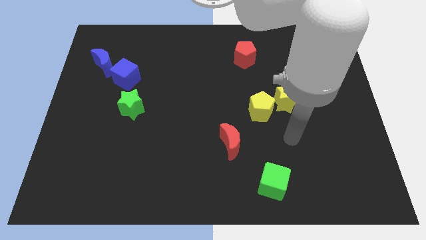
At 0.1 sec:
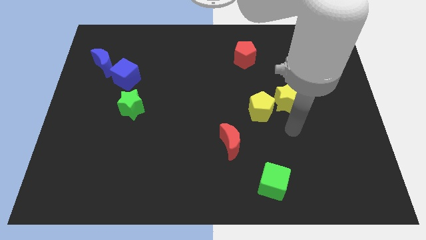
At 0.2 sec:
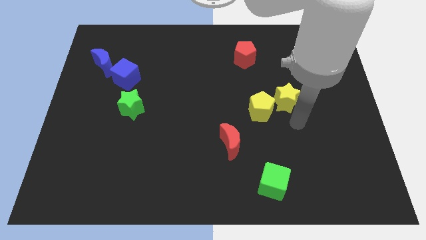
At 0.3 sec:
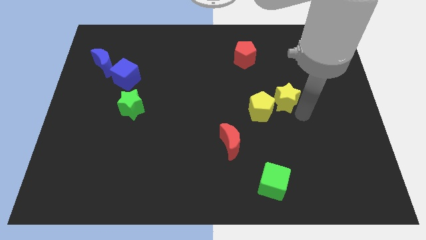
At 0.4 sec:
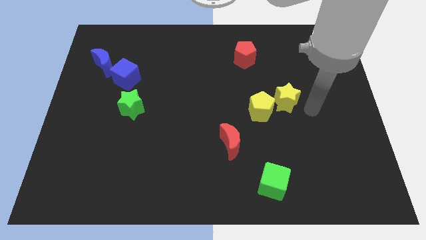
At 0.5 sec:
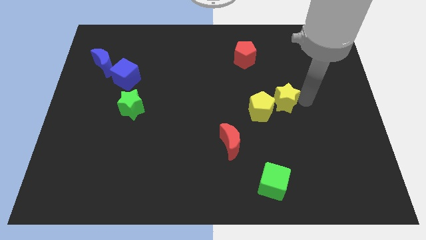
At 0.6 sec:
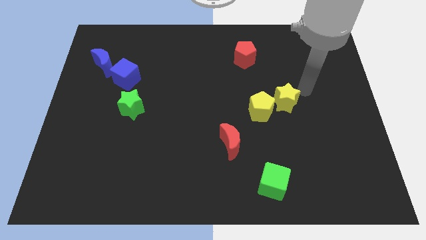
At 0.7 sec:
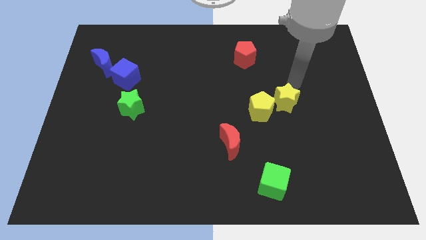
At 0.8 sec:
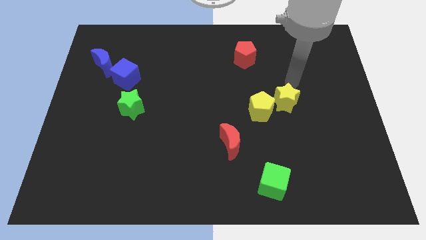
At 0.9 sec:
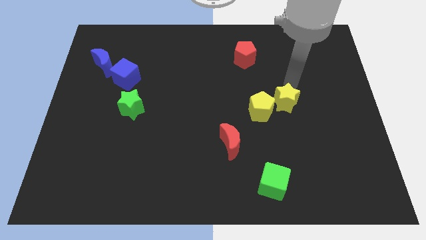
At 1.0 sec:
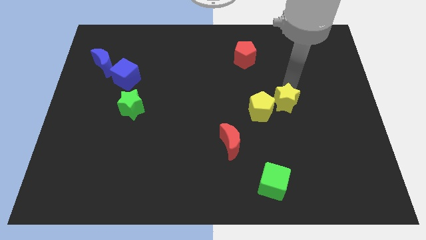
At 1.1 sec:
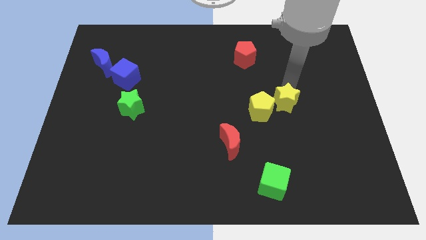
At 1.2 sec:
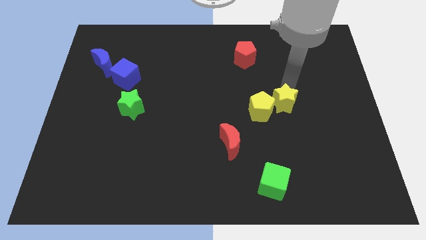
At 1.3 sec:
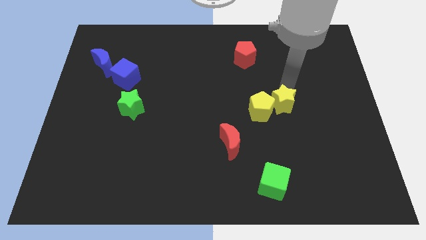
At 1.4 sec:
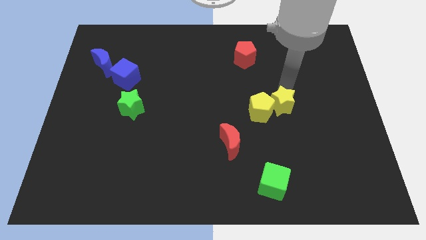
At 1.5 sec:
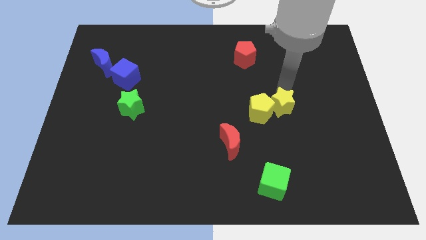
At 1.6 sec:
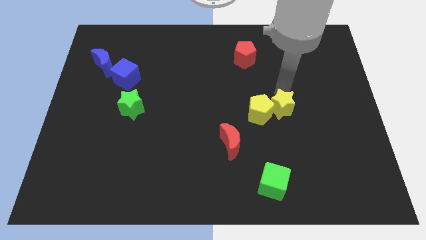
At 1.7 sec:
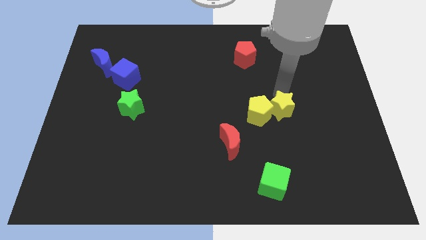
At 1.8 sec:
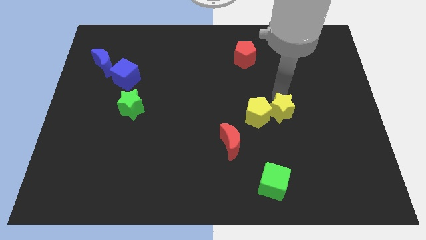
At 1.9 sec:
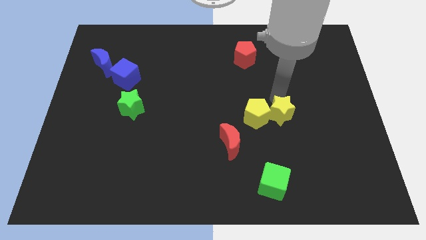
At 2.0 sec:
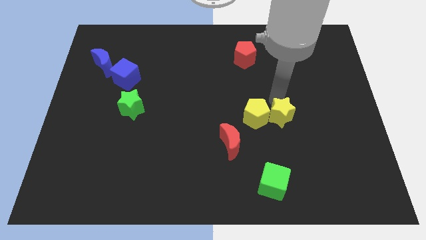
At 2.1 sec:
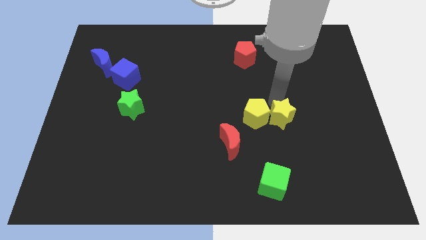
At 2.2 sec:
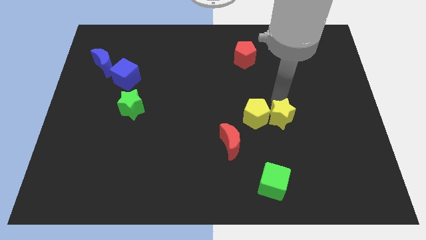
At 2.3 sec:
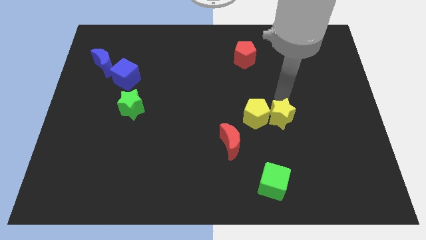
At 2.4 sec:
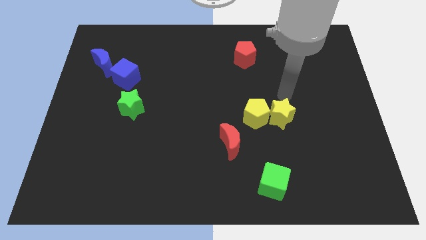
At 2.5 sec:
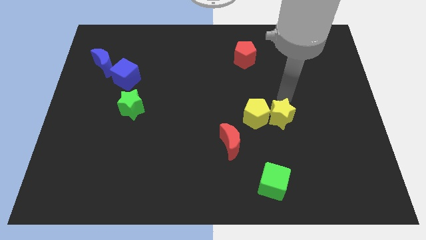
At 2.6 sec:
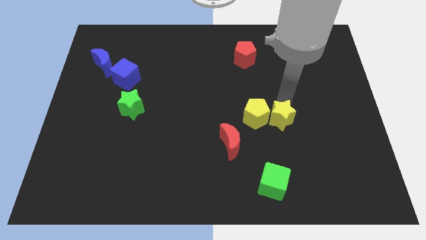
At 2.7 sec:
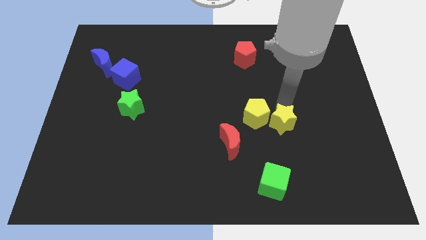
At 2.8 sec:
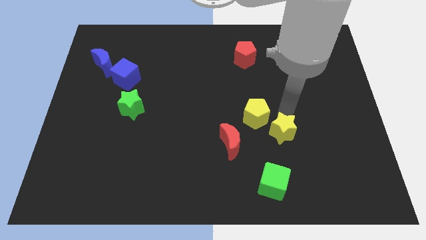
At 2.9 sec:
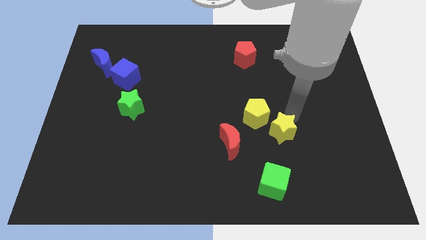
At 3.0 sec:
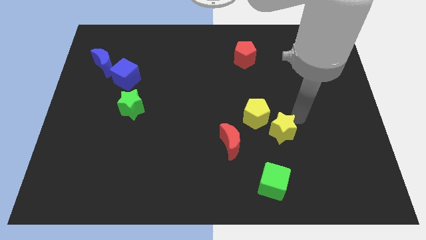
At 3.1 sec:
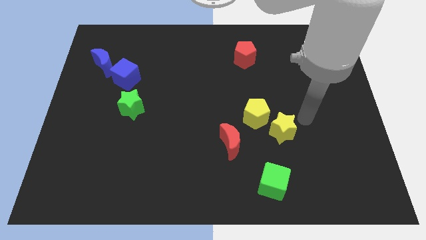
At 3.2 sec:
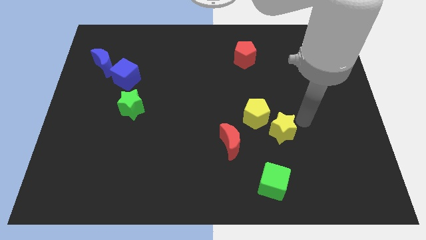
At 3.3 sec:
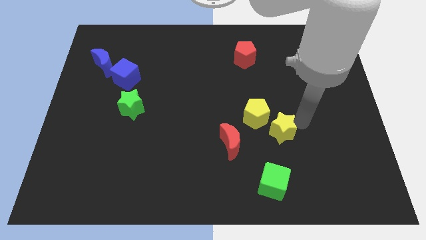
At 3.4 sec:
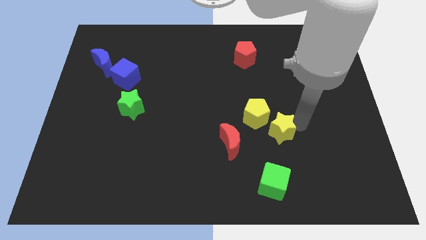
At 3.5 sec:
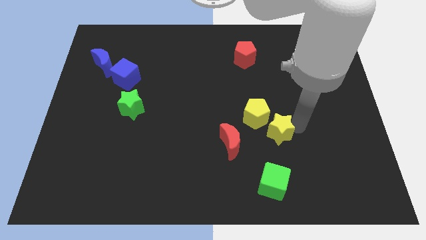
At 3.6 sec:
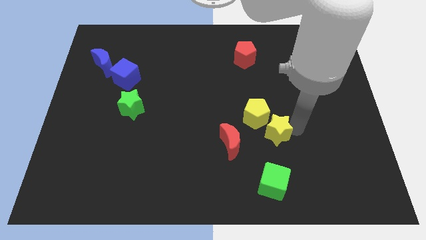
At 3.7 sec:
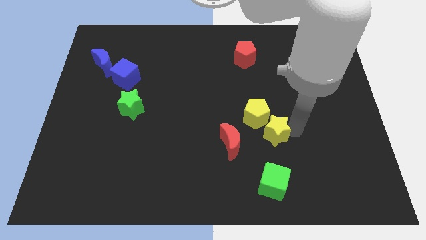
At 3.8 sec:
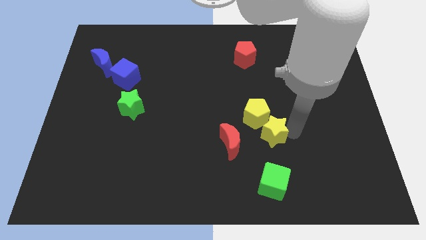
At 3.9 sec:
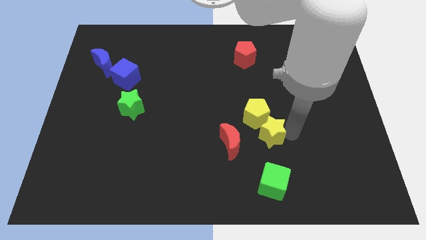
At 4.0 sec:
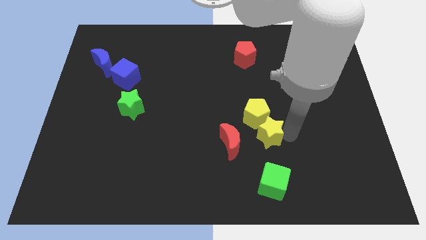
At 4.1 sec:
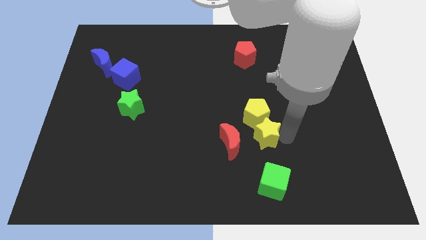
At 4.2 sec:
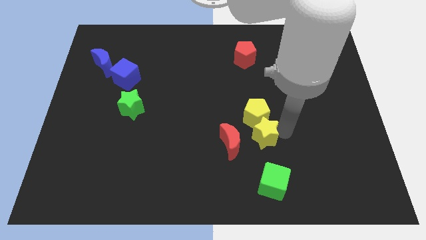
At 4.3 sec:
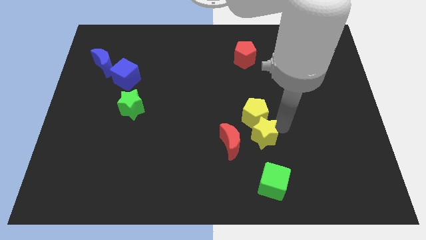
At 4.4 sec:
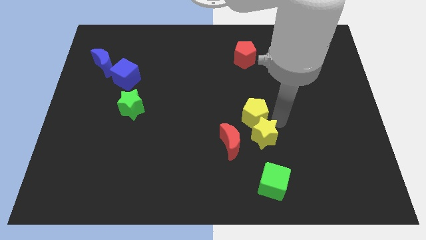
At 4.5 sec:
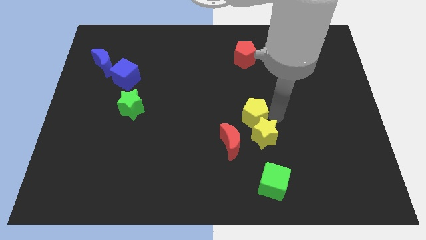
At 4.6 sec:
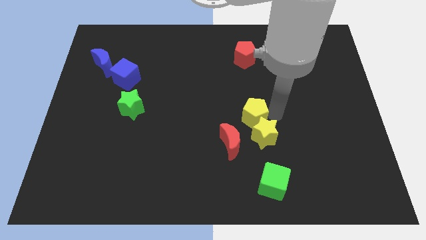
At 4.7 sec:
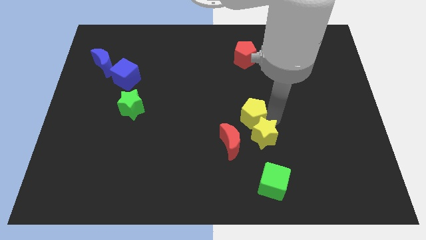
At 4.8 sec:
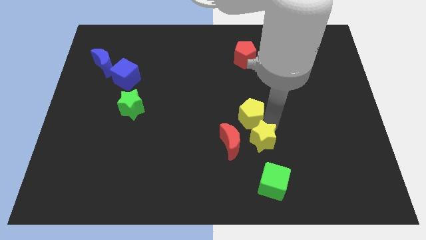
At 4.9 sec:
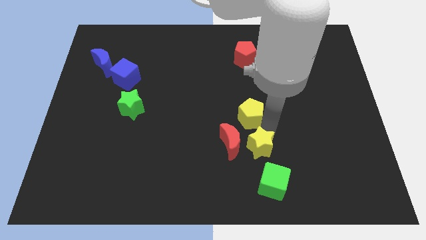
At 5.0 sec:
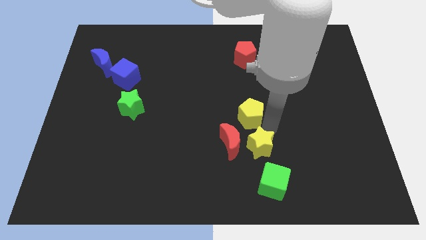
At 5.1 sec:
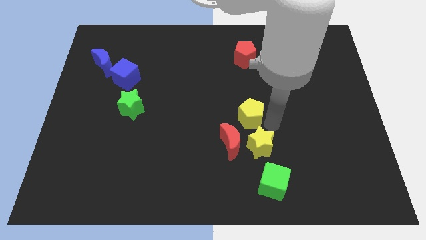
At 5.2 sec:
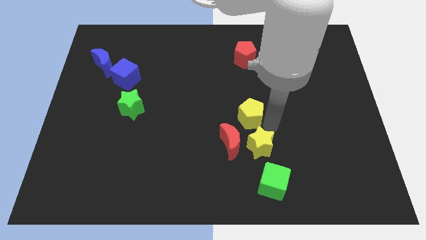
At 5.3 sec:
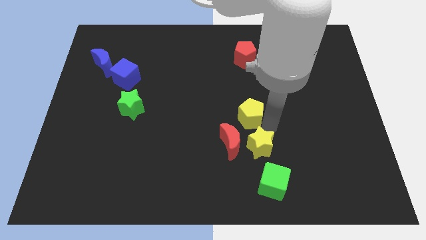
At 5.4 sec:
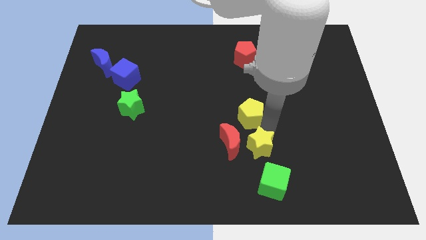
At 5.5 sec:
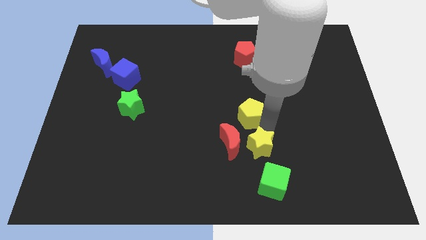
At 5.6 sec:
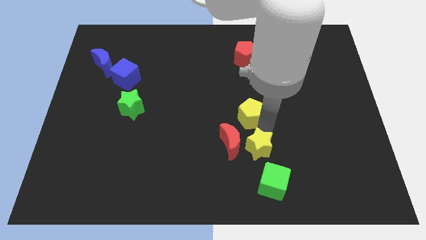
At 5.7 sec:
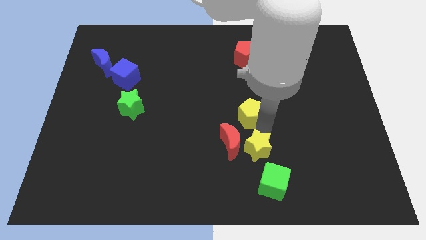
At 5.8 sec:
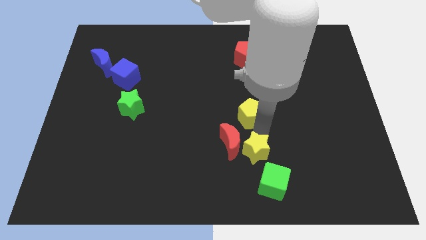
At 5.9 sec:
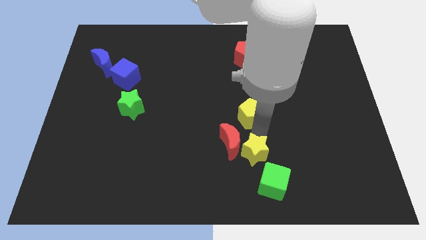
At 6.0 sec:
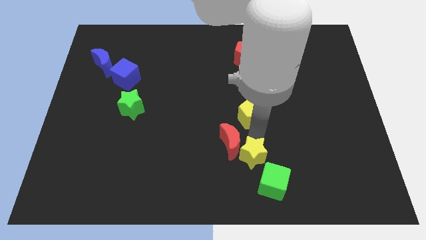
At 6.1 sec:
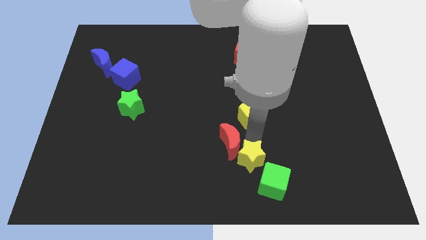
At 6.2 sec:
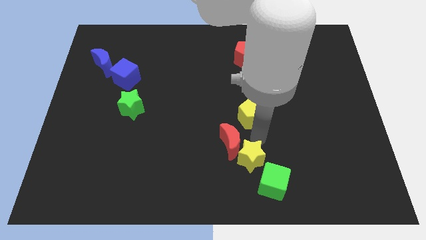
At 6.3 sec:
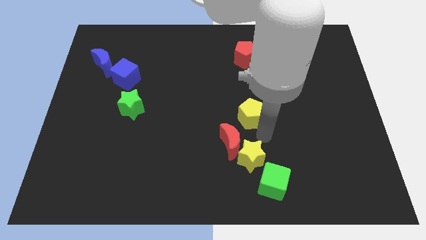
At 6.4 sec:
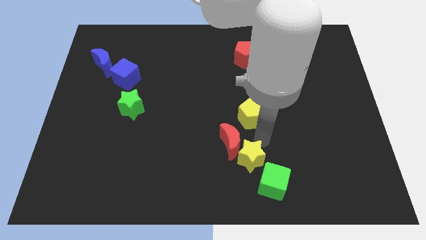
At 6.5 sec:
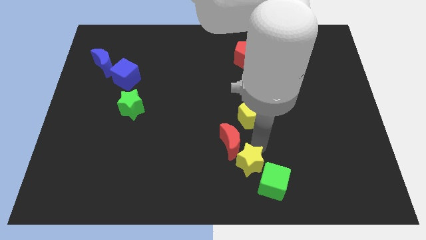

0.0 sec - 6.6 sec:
move the yellow star to the bottom side
